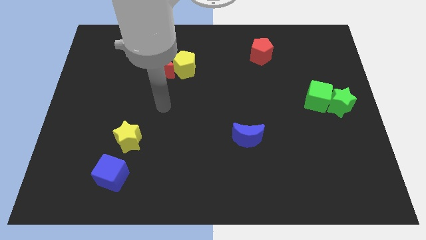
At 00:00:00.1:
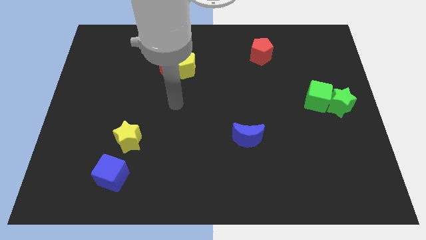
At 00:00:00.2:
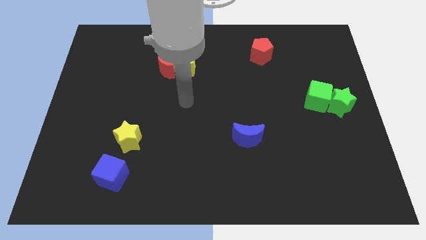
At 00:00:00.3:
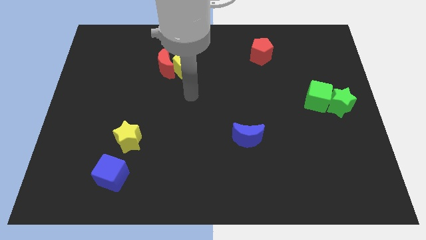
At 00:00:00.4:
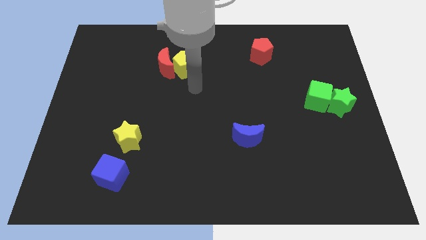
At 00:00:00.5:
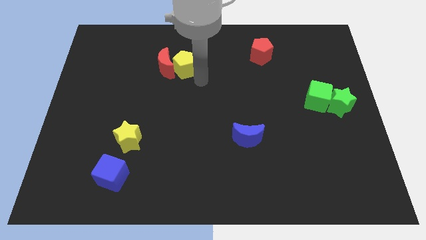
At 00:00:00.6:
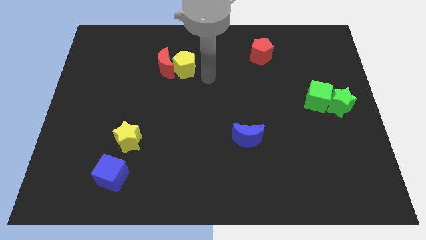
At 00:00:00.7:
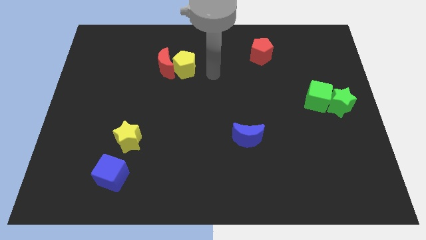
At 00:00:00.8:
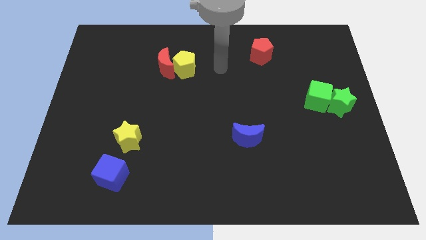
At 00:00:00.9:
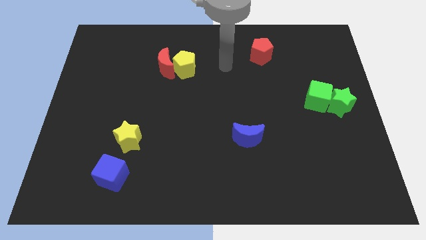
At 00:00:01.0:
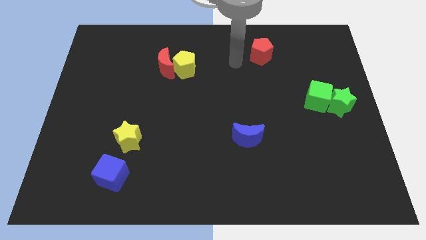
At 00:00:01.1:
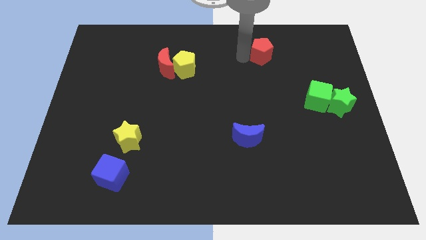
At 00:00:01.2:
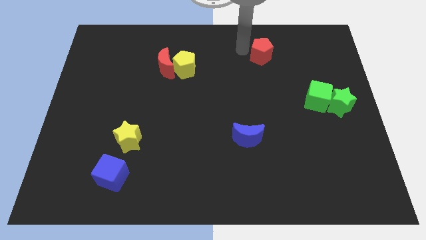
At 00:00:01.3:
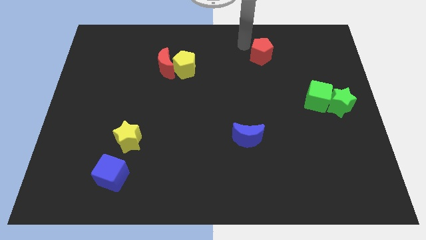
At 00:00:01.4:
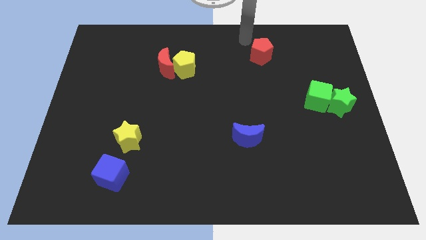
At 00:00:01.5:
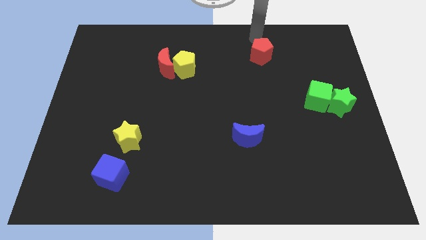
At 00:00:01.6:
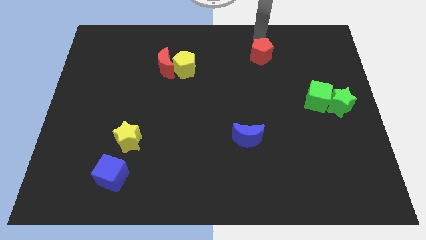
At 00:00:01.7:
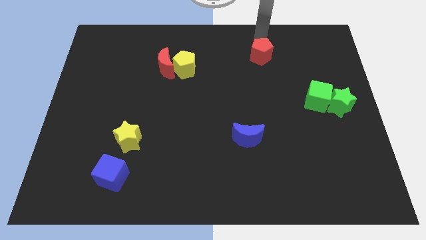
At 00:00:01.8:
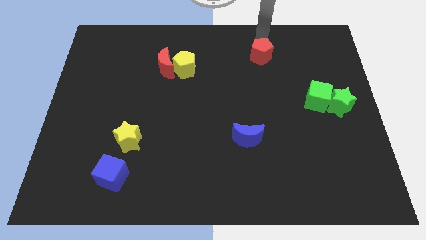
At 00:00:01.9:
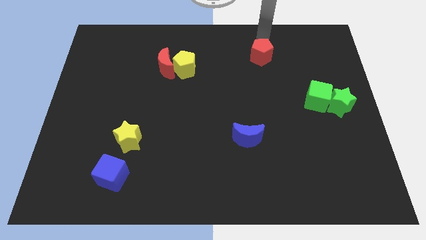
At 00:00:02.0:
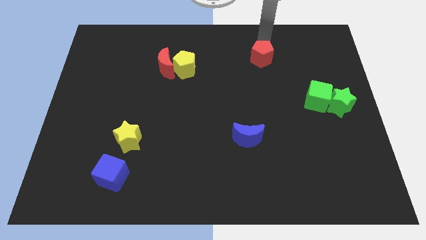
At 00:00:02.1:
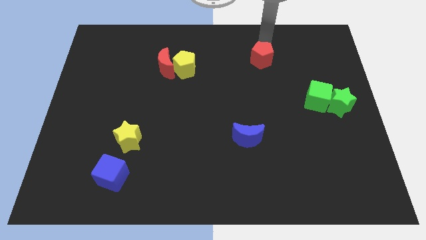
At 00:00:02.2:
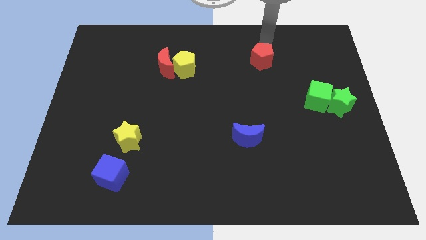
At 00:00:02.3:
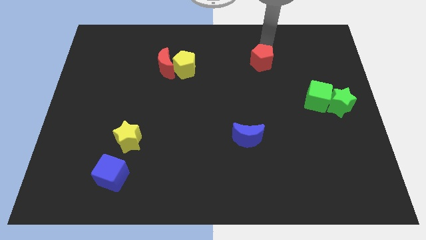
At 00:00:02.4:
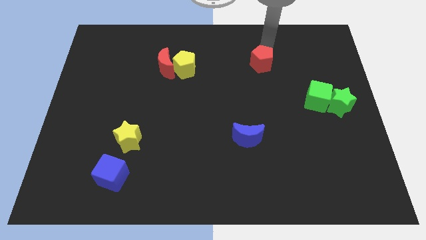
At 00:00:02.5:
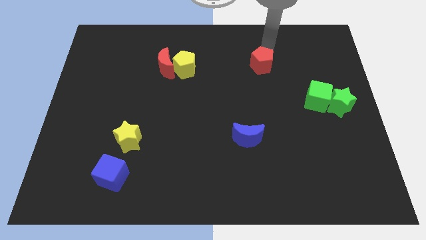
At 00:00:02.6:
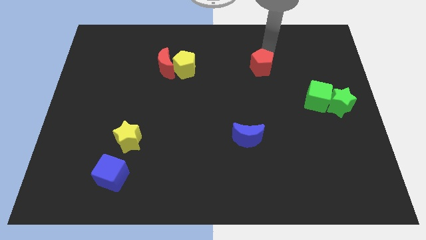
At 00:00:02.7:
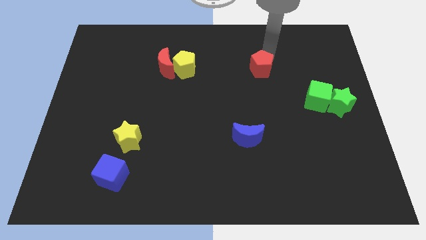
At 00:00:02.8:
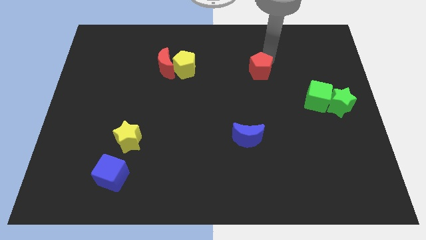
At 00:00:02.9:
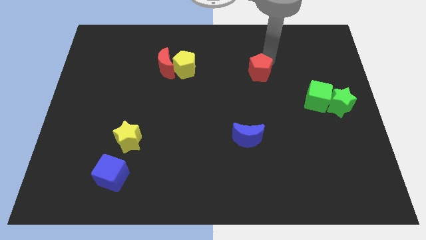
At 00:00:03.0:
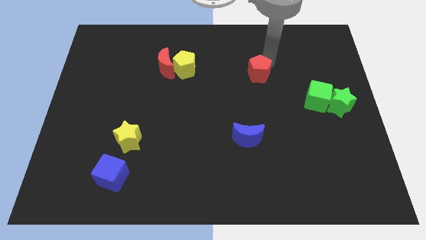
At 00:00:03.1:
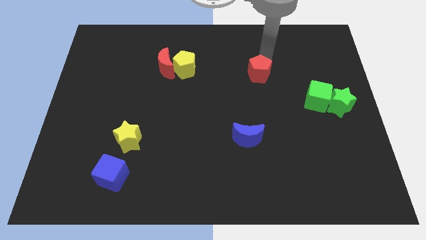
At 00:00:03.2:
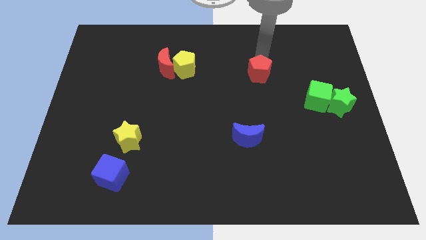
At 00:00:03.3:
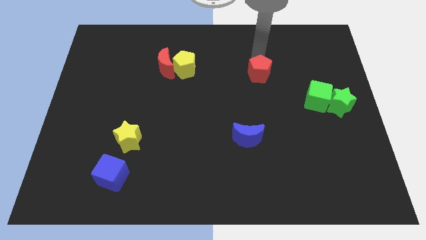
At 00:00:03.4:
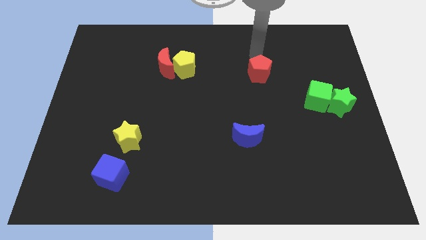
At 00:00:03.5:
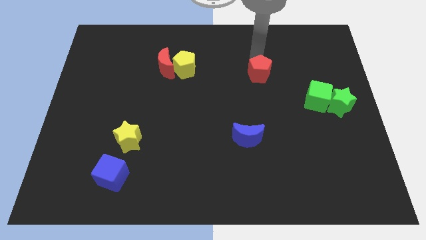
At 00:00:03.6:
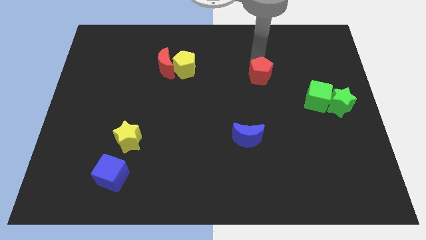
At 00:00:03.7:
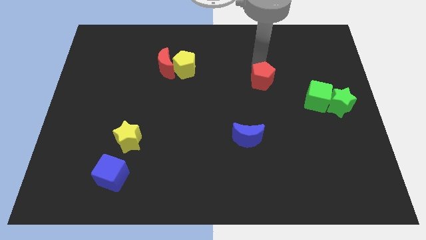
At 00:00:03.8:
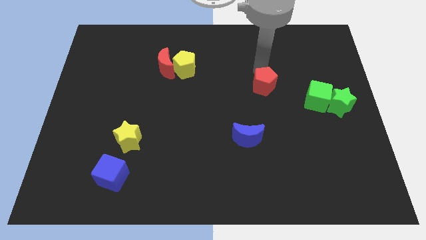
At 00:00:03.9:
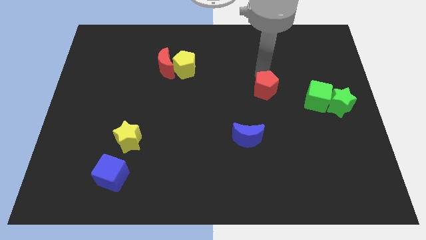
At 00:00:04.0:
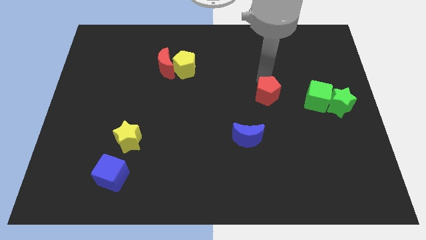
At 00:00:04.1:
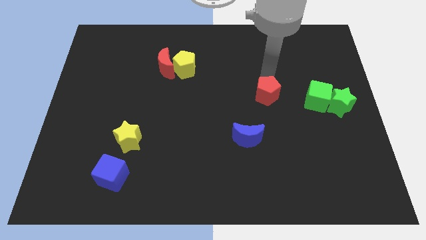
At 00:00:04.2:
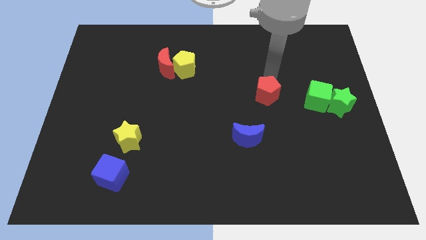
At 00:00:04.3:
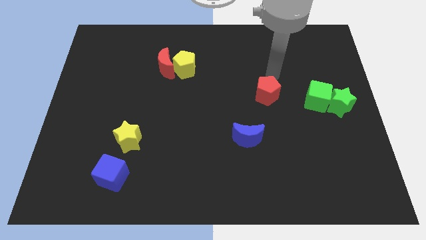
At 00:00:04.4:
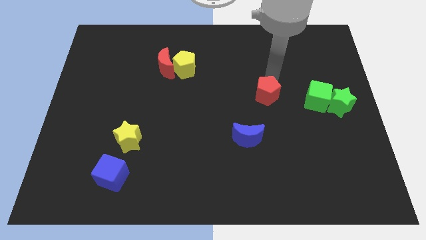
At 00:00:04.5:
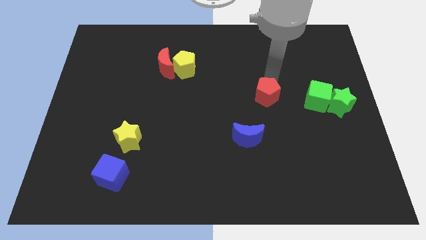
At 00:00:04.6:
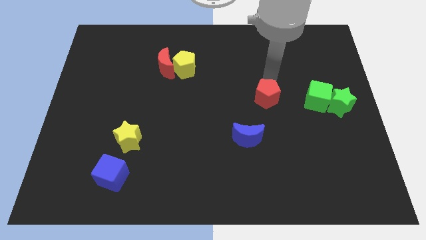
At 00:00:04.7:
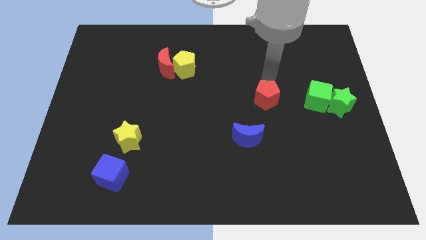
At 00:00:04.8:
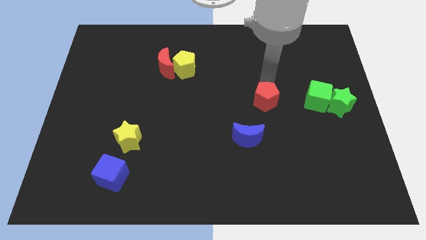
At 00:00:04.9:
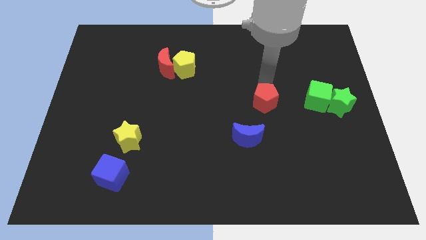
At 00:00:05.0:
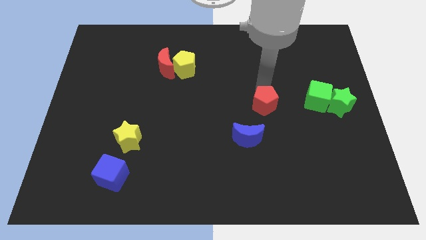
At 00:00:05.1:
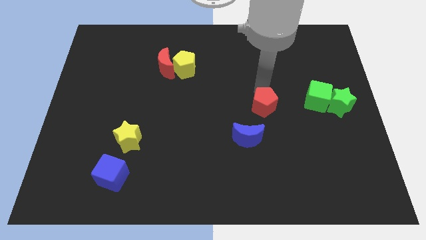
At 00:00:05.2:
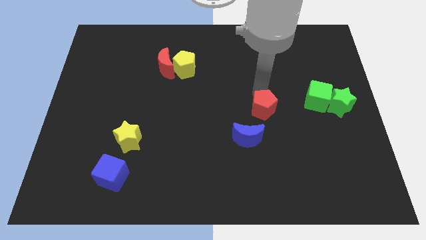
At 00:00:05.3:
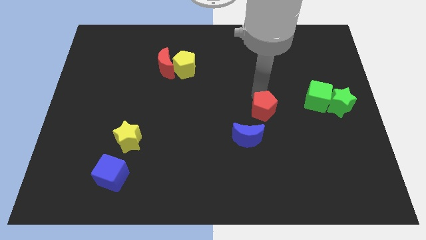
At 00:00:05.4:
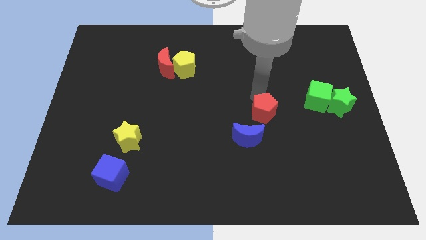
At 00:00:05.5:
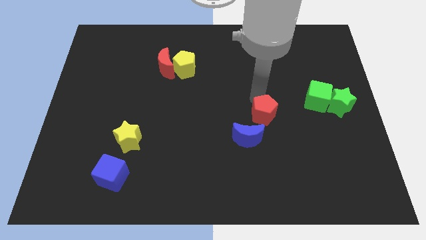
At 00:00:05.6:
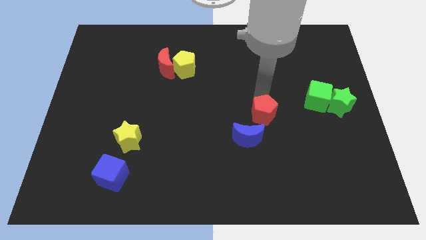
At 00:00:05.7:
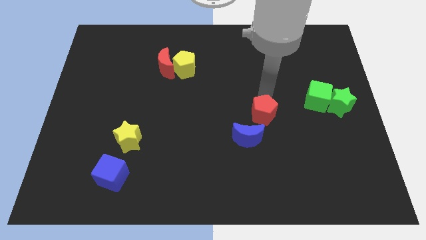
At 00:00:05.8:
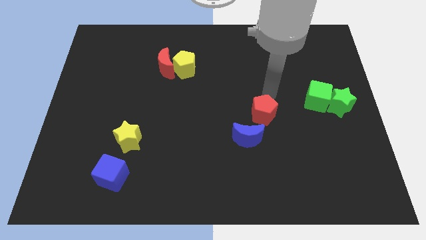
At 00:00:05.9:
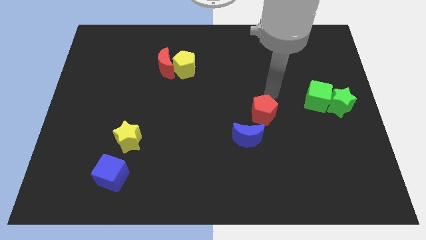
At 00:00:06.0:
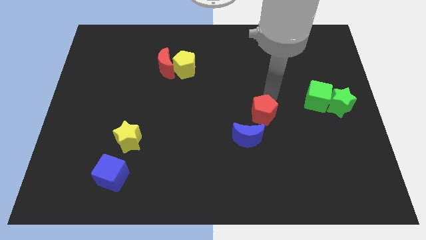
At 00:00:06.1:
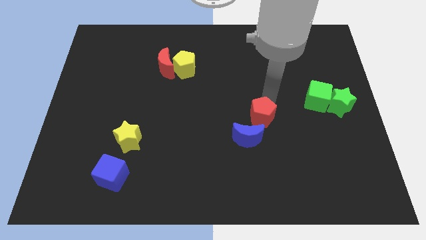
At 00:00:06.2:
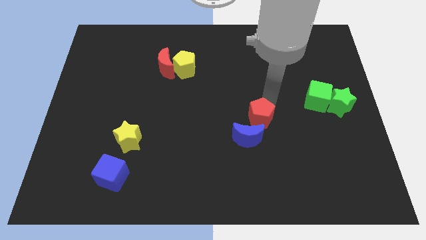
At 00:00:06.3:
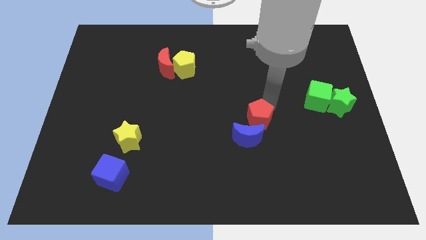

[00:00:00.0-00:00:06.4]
move the red pentagon towards the blue moon

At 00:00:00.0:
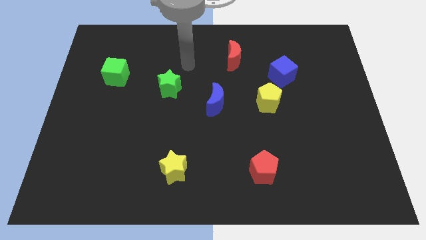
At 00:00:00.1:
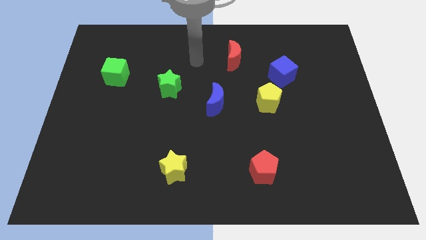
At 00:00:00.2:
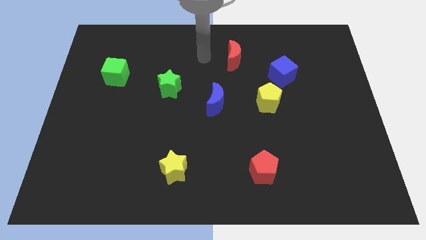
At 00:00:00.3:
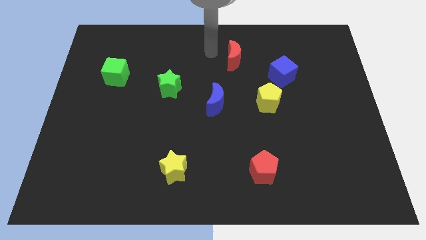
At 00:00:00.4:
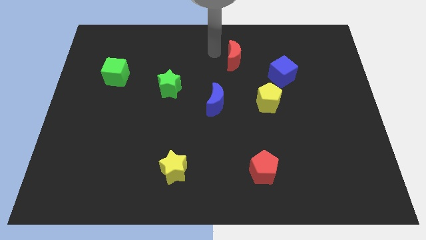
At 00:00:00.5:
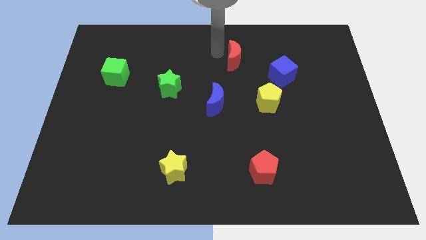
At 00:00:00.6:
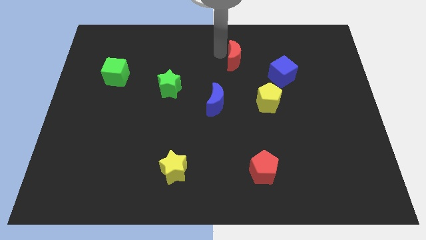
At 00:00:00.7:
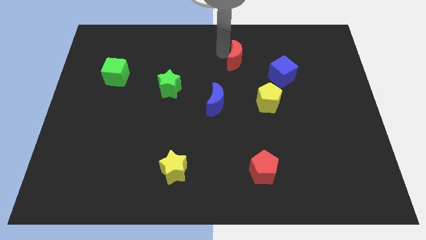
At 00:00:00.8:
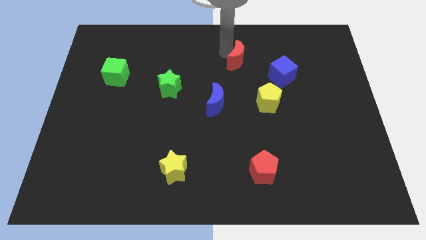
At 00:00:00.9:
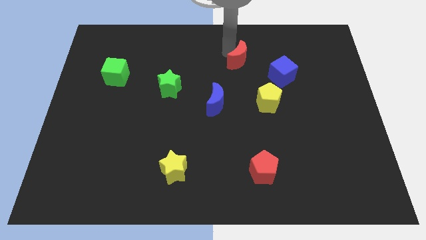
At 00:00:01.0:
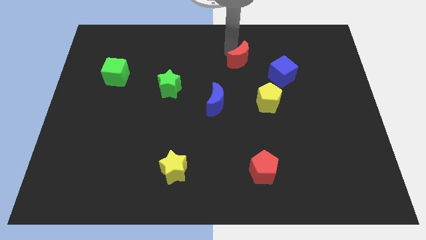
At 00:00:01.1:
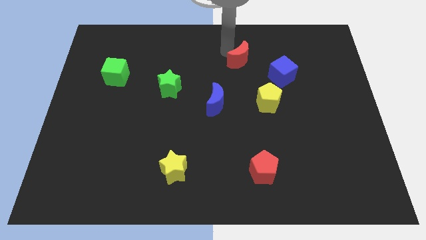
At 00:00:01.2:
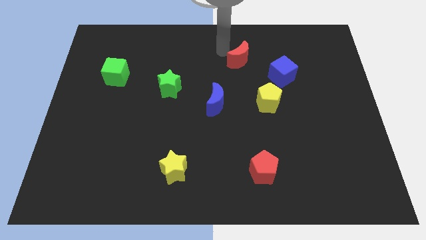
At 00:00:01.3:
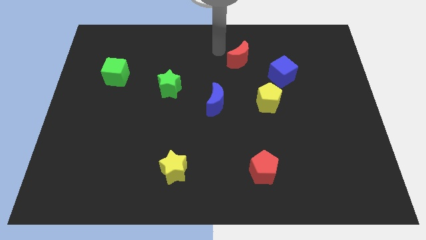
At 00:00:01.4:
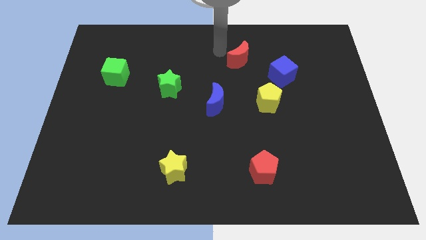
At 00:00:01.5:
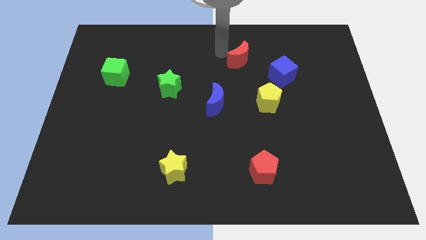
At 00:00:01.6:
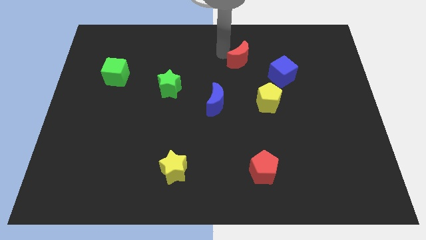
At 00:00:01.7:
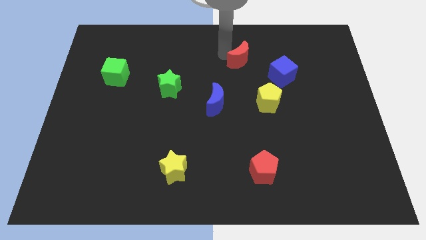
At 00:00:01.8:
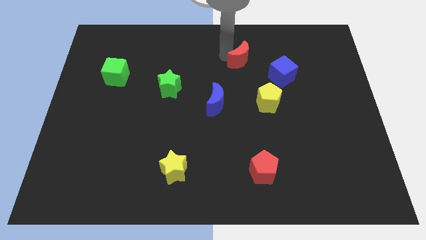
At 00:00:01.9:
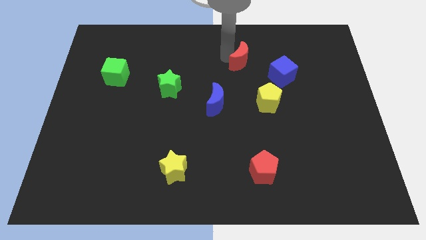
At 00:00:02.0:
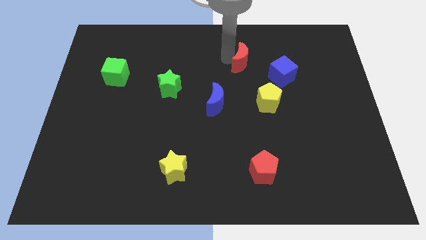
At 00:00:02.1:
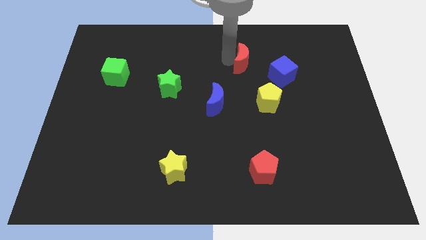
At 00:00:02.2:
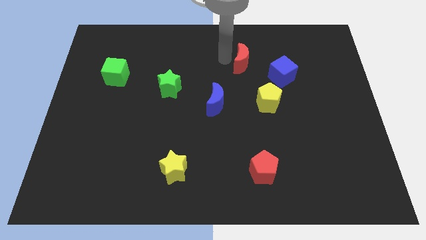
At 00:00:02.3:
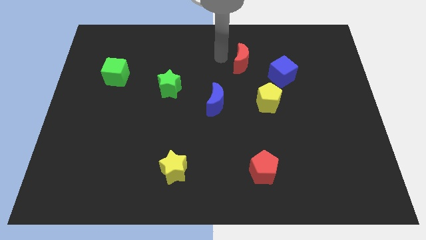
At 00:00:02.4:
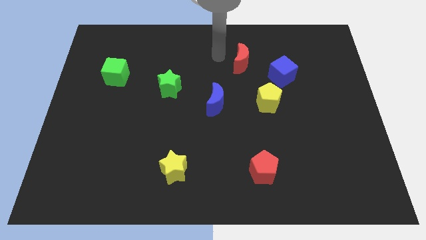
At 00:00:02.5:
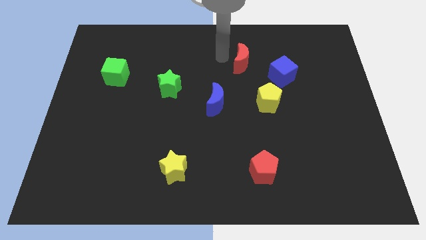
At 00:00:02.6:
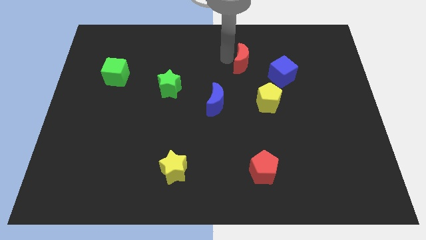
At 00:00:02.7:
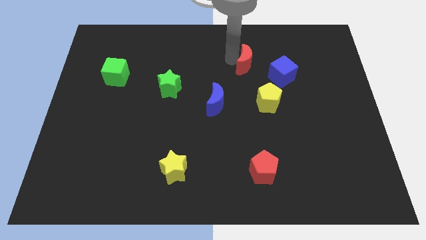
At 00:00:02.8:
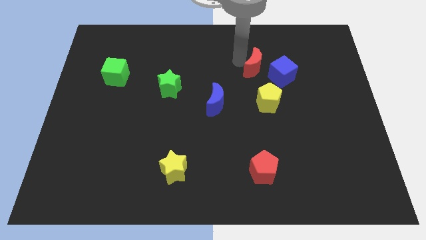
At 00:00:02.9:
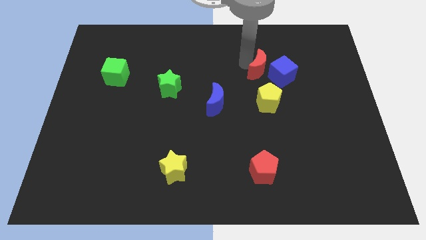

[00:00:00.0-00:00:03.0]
put the red moon towards the blue cube
